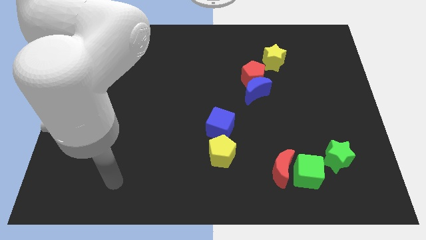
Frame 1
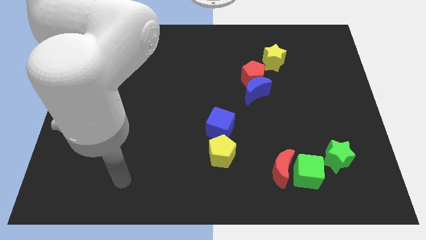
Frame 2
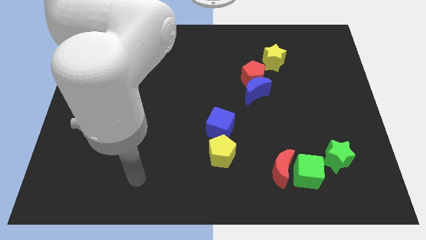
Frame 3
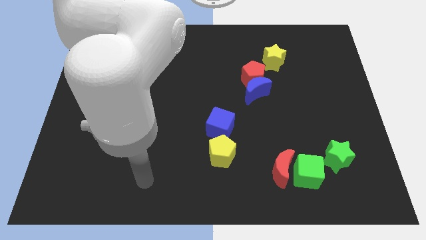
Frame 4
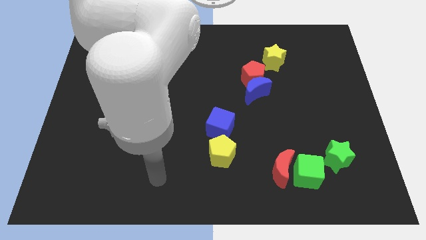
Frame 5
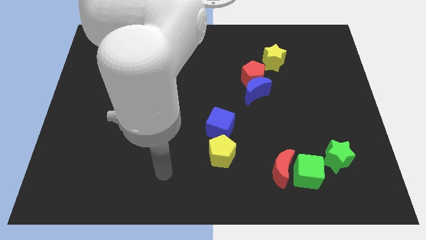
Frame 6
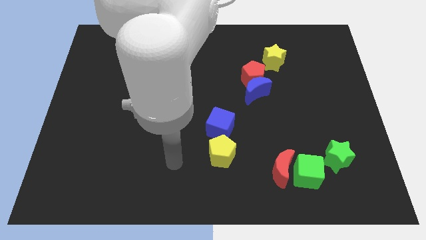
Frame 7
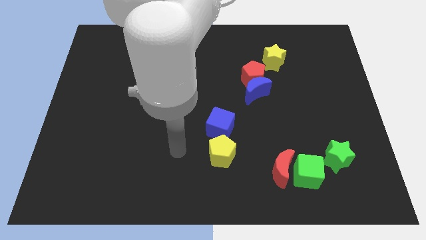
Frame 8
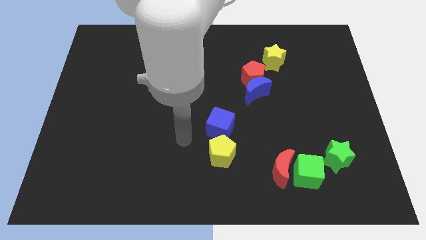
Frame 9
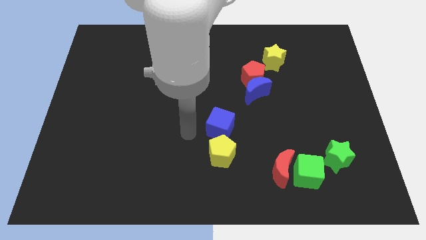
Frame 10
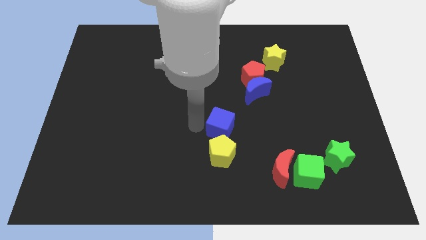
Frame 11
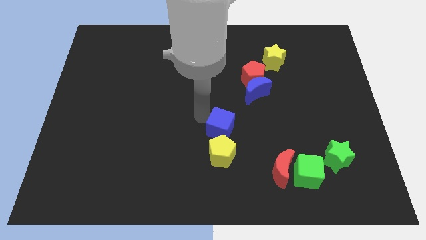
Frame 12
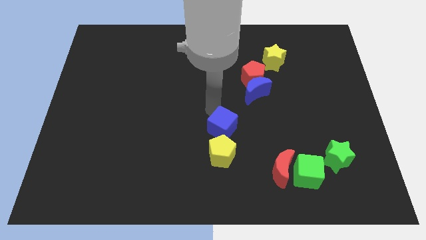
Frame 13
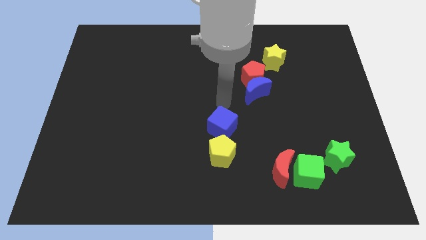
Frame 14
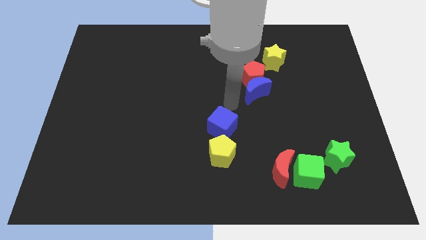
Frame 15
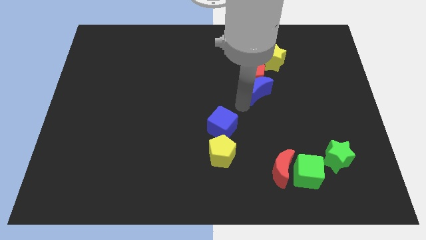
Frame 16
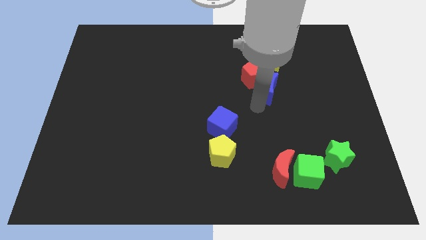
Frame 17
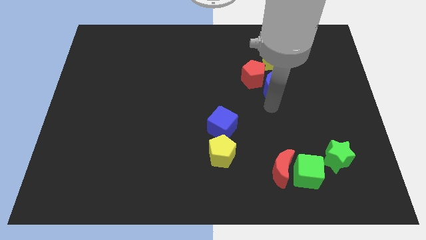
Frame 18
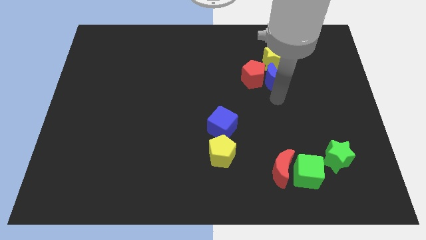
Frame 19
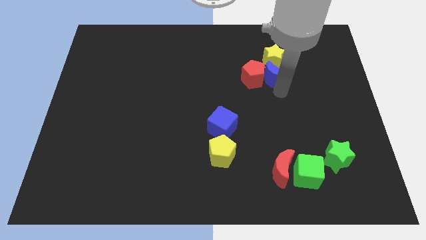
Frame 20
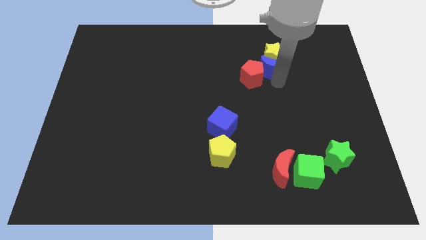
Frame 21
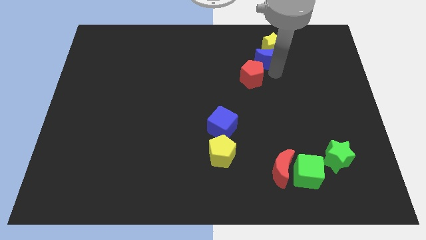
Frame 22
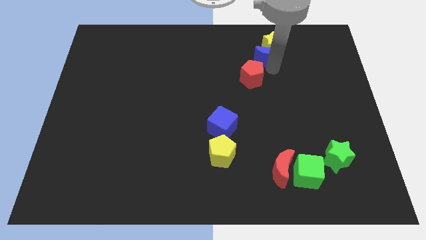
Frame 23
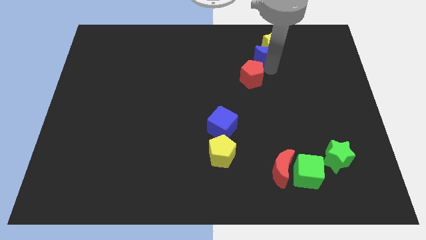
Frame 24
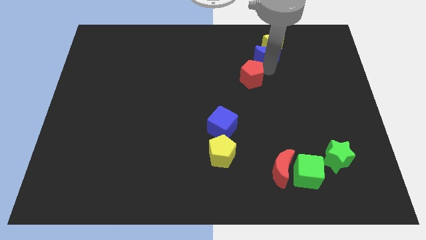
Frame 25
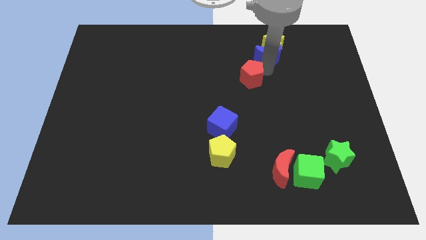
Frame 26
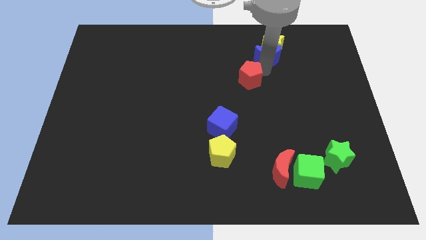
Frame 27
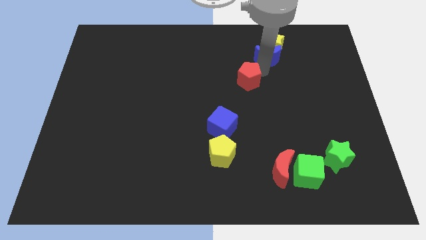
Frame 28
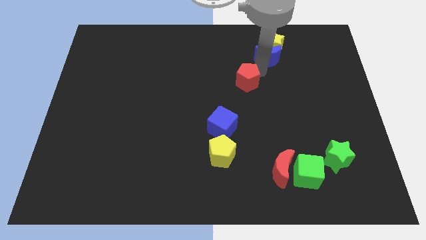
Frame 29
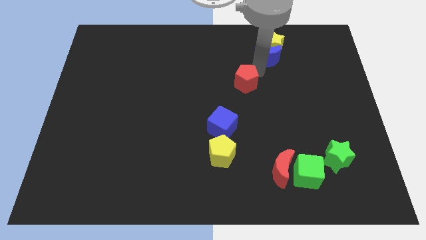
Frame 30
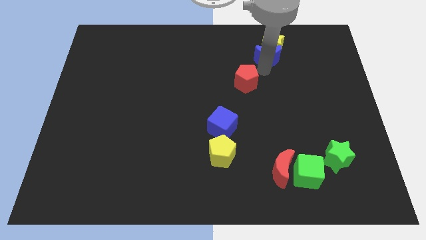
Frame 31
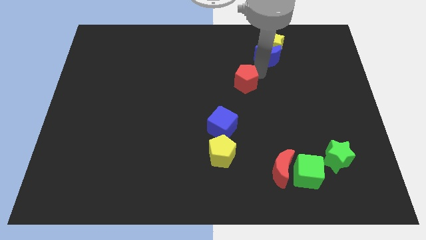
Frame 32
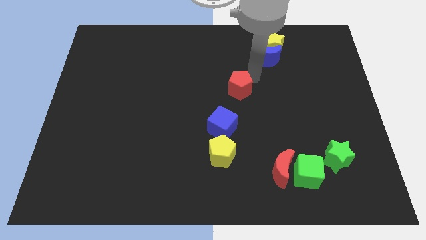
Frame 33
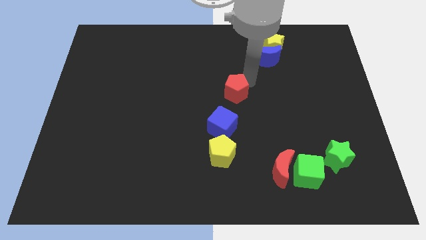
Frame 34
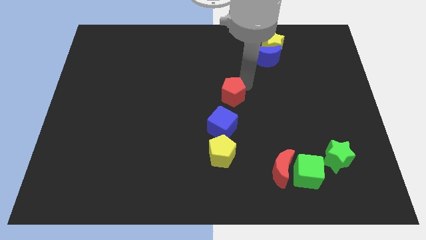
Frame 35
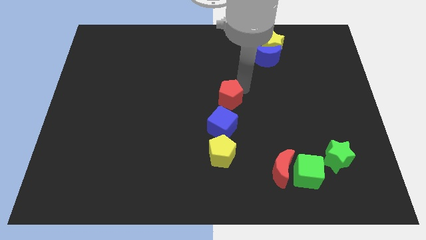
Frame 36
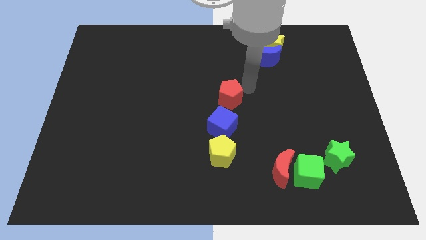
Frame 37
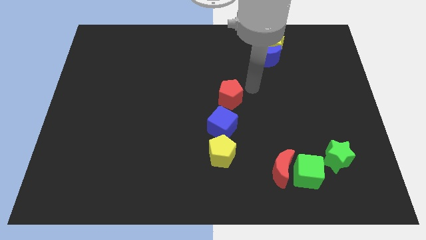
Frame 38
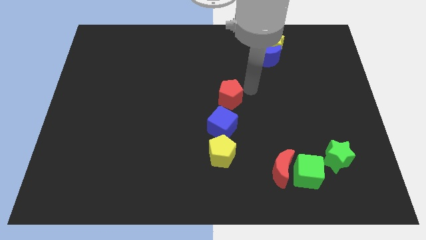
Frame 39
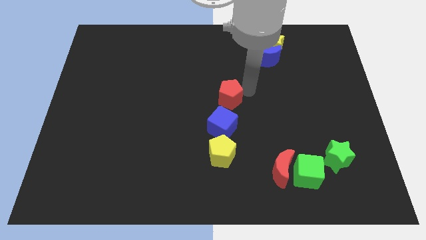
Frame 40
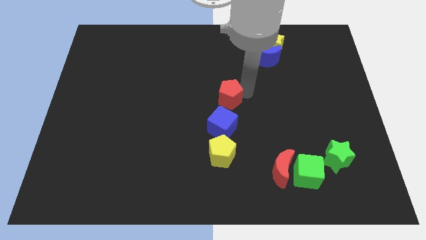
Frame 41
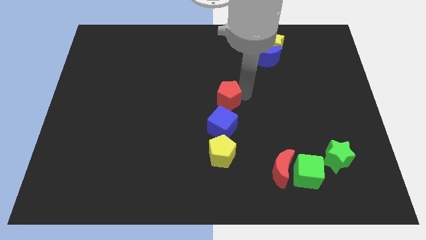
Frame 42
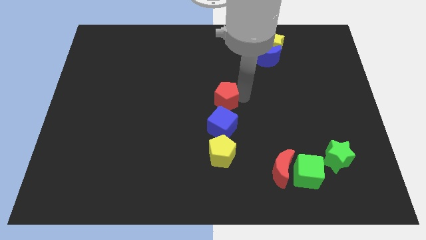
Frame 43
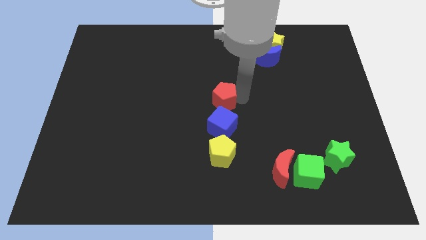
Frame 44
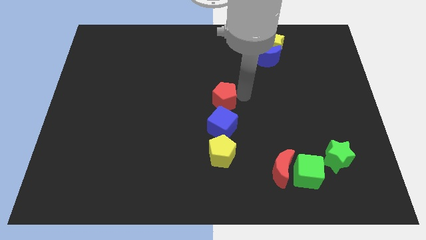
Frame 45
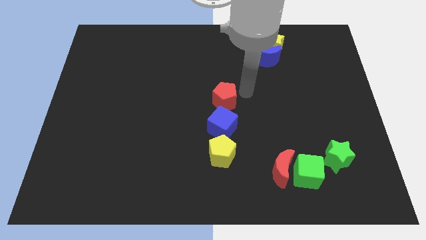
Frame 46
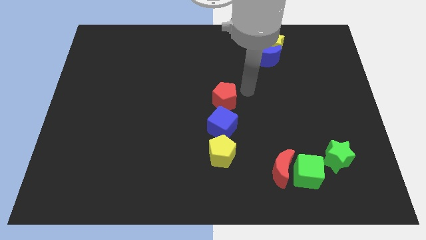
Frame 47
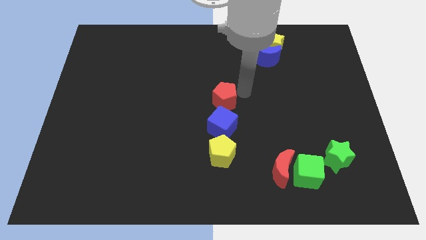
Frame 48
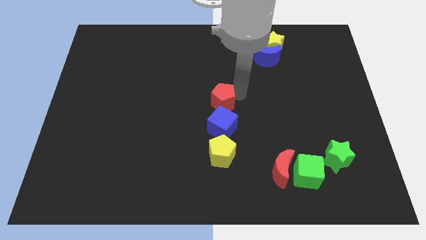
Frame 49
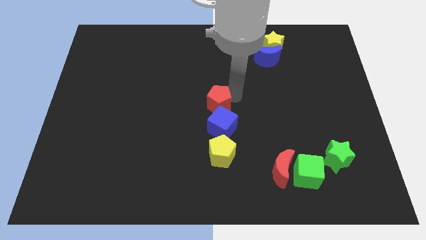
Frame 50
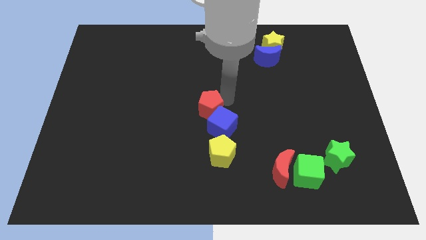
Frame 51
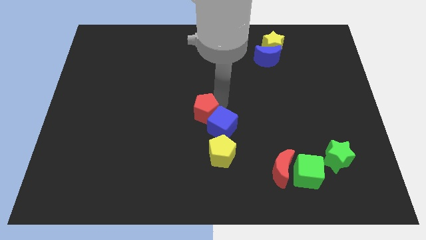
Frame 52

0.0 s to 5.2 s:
slide the red pentagon to the left of the blue cube

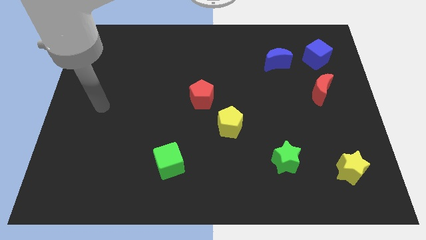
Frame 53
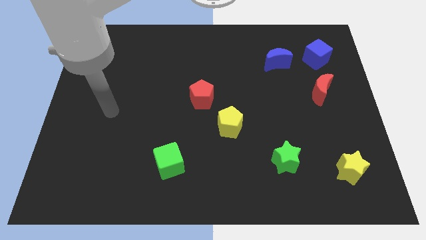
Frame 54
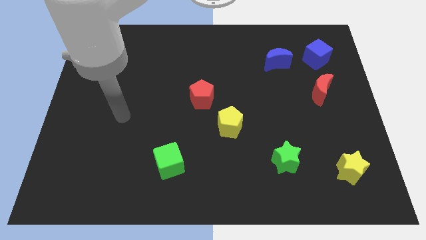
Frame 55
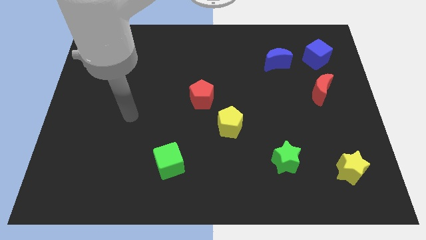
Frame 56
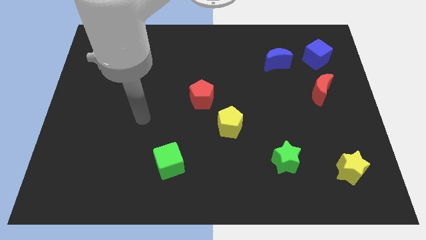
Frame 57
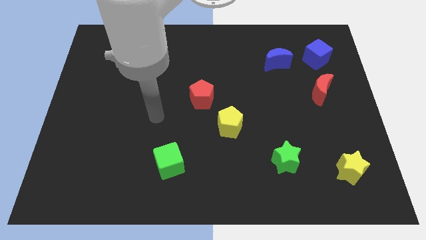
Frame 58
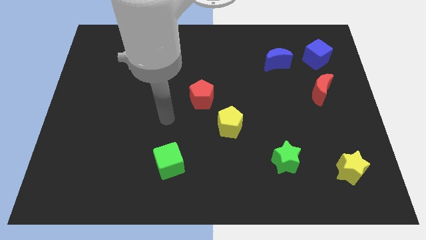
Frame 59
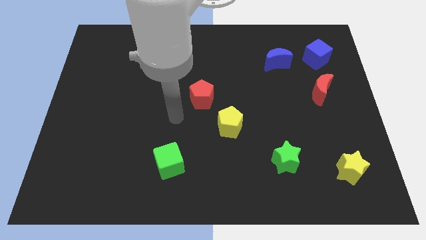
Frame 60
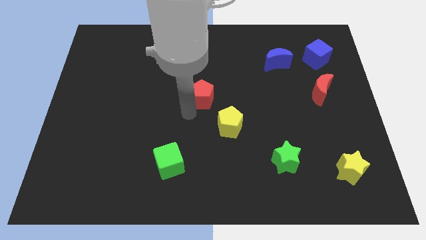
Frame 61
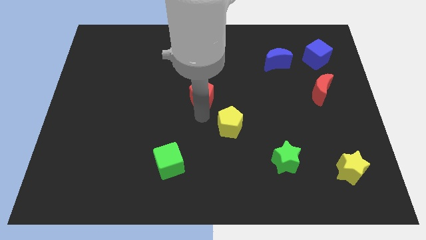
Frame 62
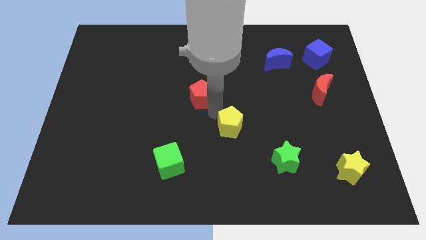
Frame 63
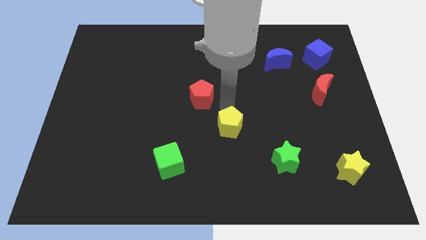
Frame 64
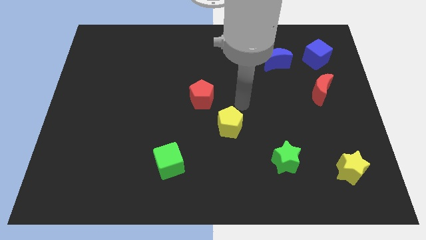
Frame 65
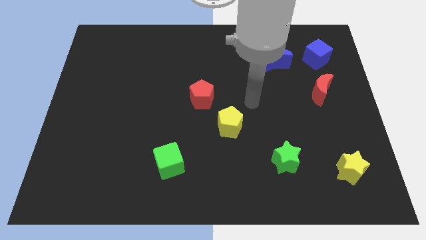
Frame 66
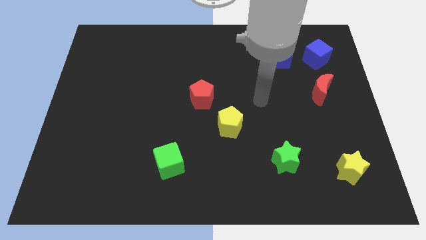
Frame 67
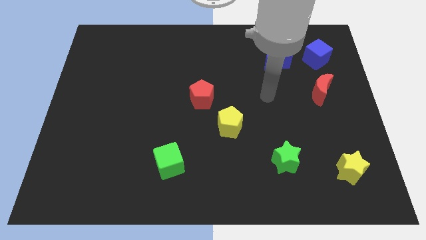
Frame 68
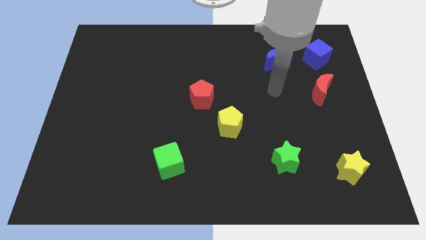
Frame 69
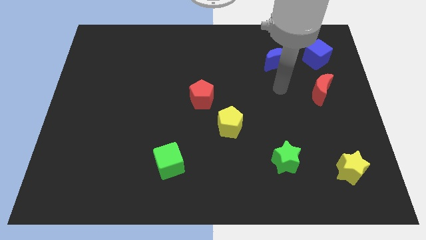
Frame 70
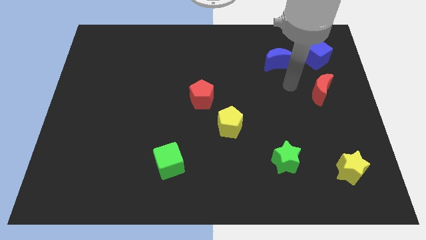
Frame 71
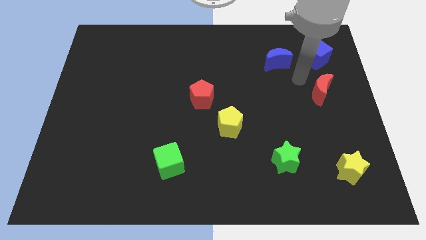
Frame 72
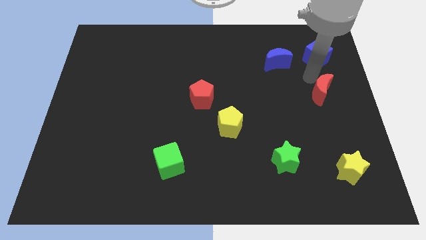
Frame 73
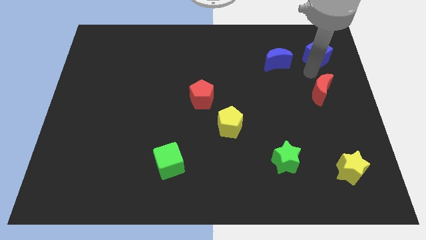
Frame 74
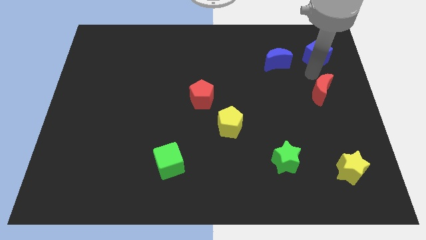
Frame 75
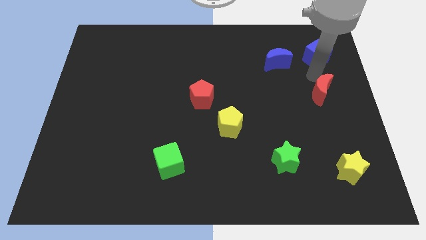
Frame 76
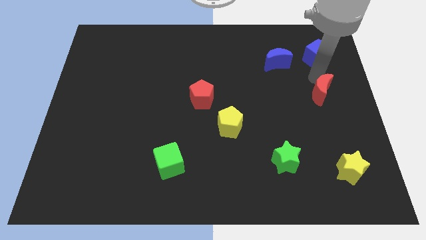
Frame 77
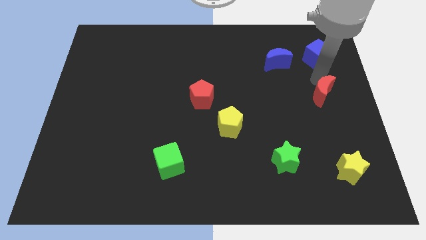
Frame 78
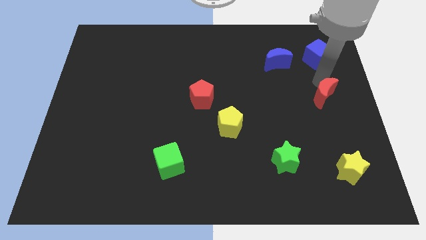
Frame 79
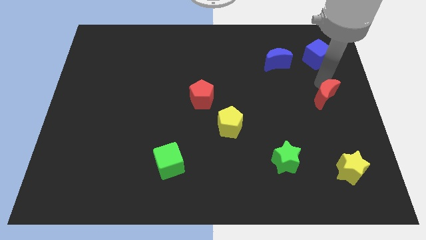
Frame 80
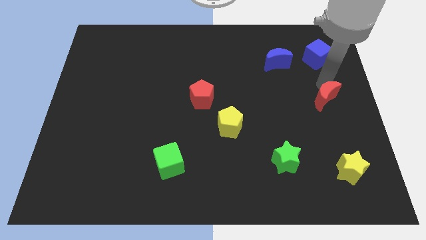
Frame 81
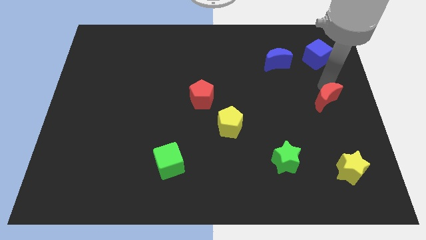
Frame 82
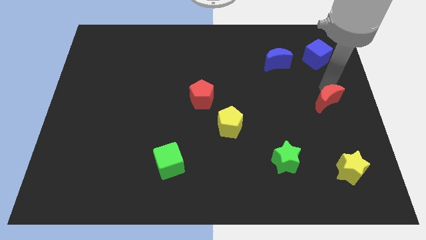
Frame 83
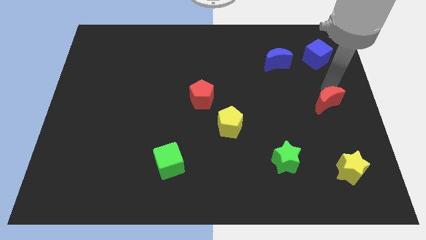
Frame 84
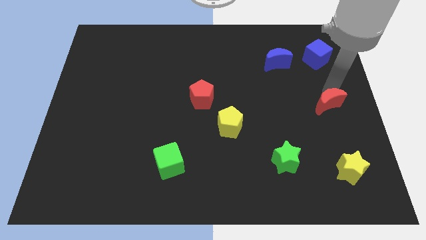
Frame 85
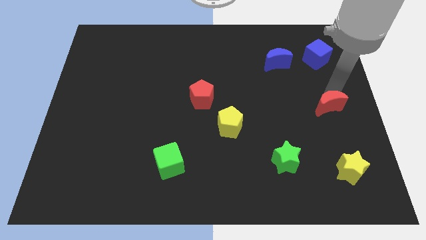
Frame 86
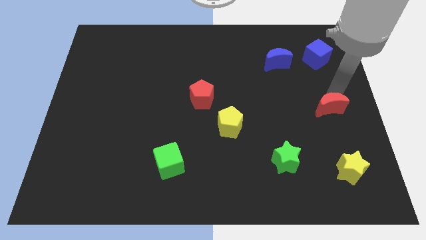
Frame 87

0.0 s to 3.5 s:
put the red moon to the top side of the yellow star
